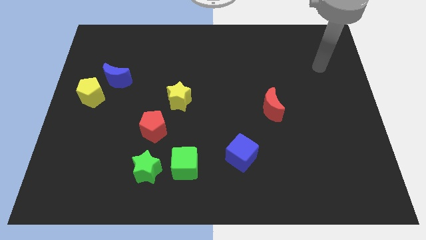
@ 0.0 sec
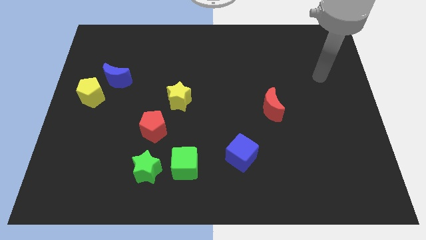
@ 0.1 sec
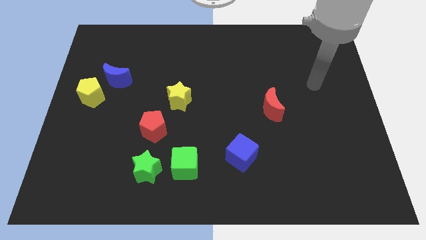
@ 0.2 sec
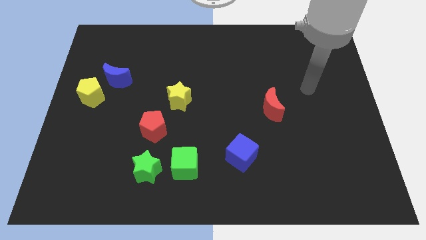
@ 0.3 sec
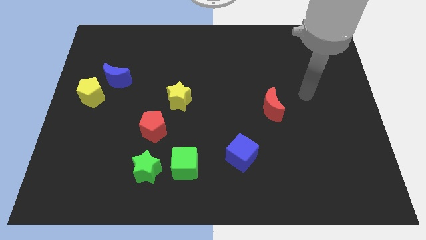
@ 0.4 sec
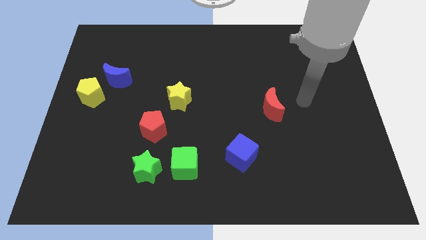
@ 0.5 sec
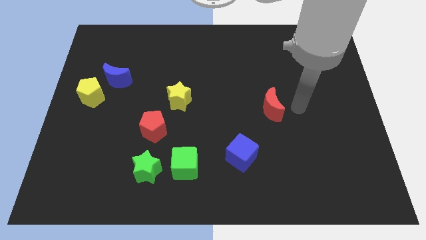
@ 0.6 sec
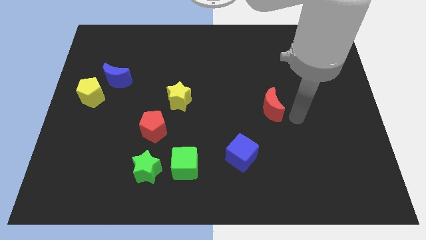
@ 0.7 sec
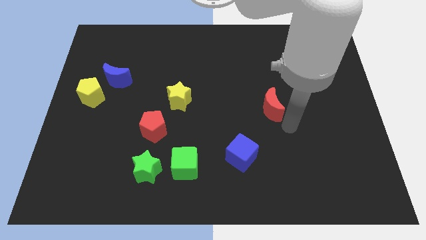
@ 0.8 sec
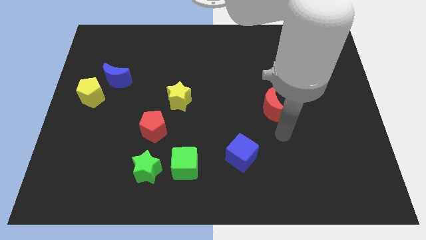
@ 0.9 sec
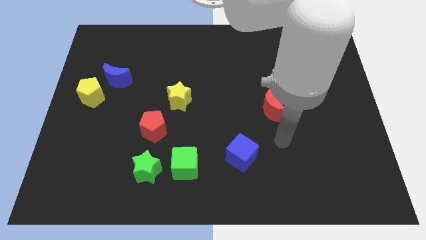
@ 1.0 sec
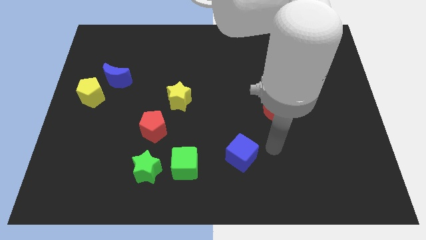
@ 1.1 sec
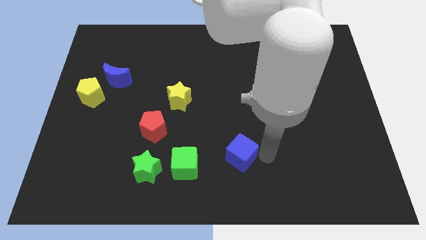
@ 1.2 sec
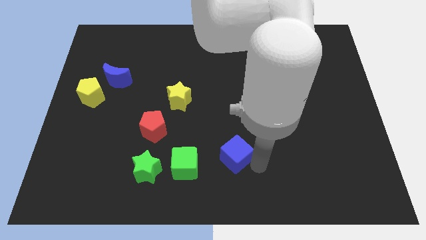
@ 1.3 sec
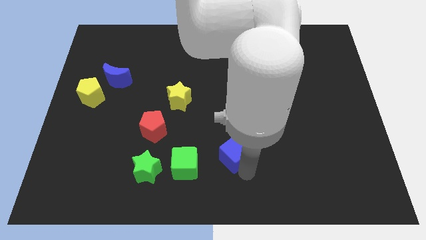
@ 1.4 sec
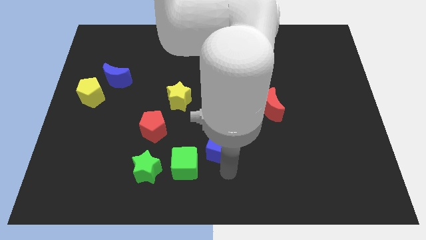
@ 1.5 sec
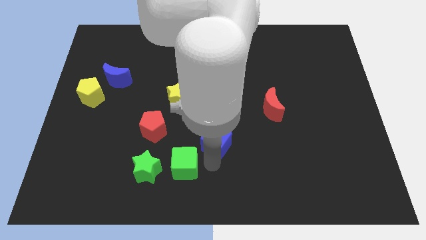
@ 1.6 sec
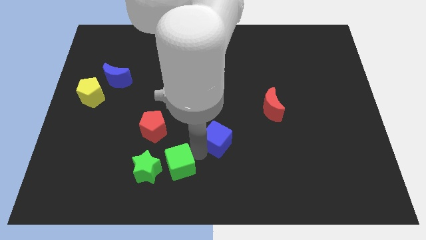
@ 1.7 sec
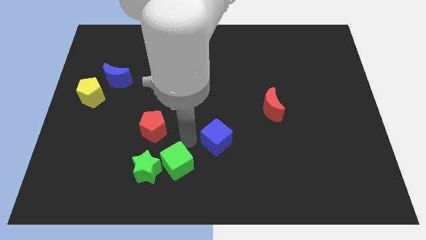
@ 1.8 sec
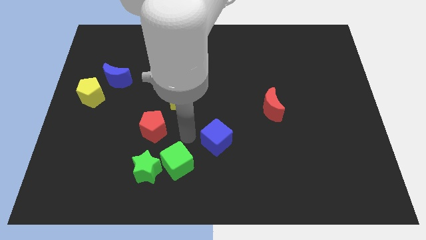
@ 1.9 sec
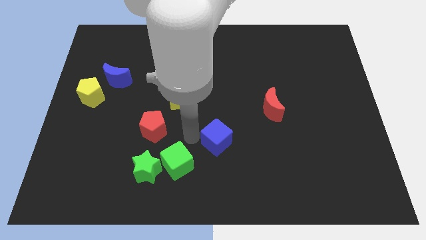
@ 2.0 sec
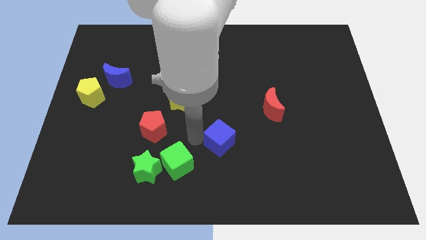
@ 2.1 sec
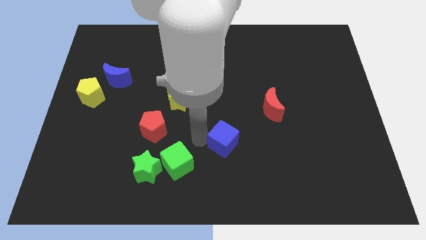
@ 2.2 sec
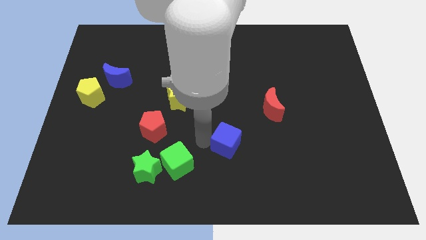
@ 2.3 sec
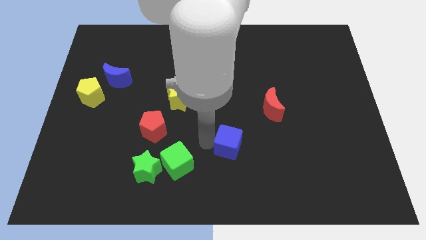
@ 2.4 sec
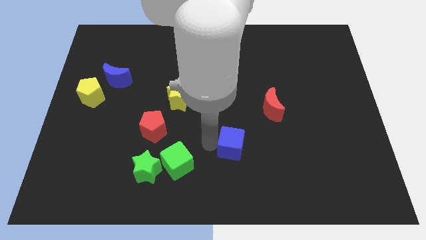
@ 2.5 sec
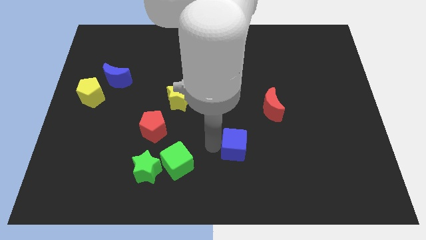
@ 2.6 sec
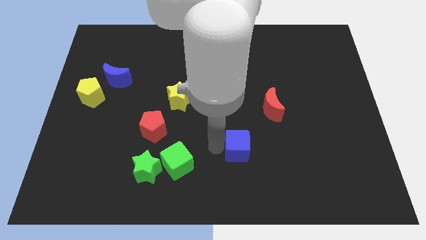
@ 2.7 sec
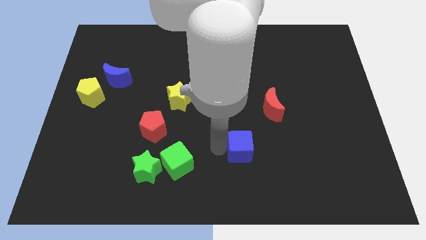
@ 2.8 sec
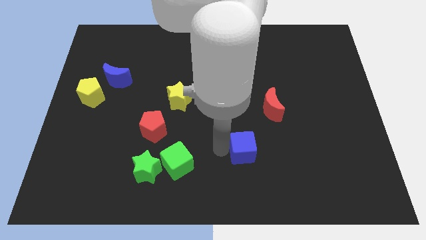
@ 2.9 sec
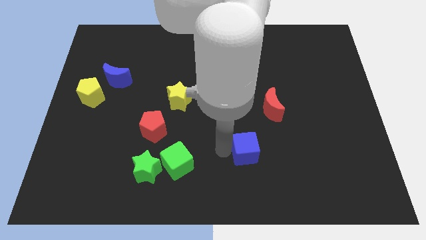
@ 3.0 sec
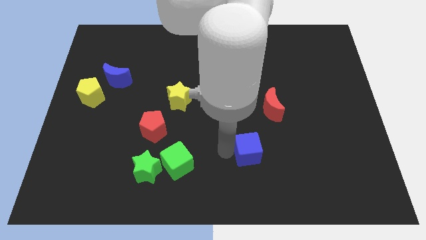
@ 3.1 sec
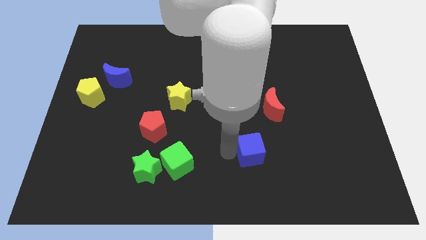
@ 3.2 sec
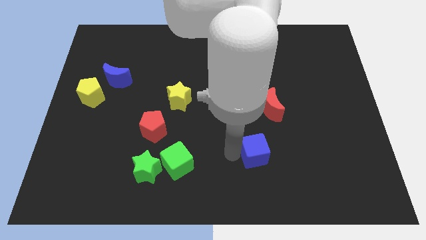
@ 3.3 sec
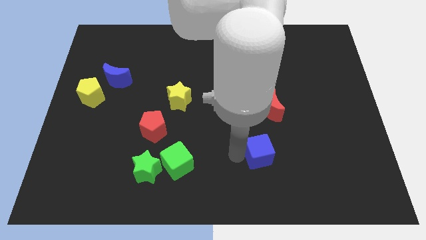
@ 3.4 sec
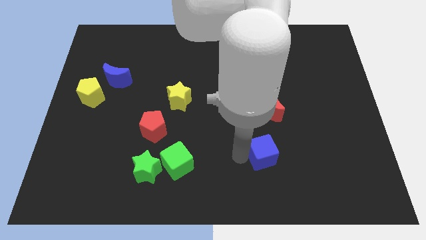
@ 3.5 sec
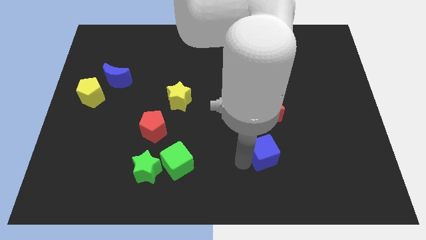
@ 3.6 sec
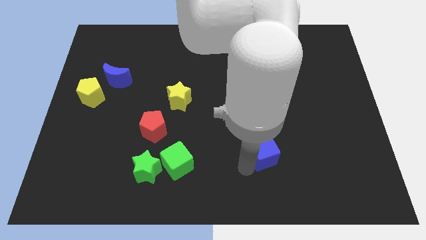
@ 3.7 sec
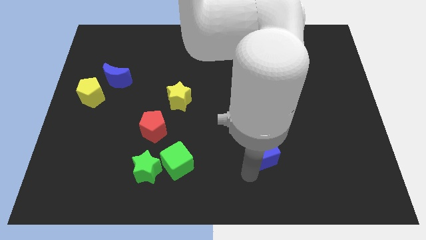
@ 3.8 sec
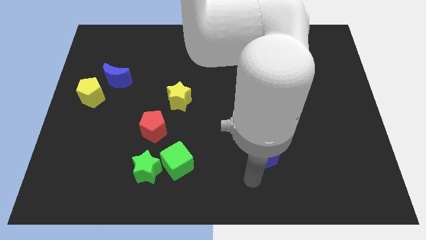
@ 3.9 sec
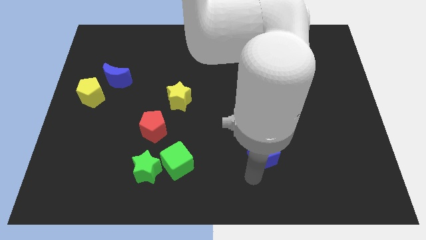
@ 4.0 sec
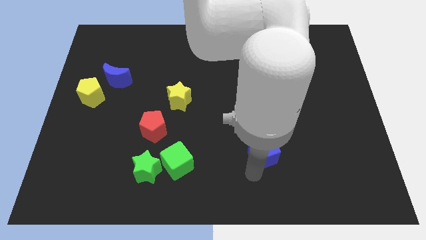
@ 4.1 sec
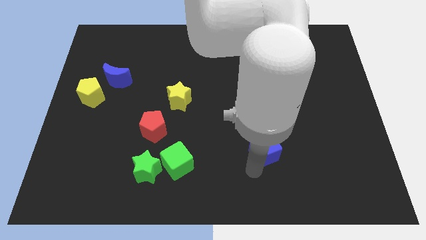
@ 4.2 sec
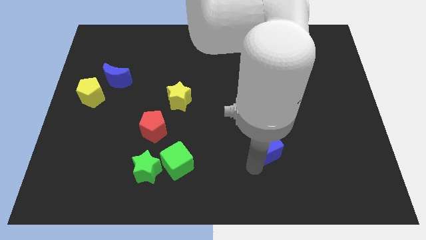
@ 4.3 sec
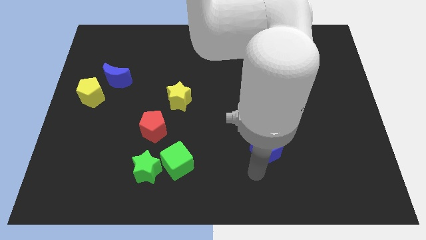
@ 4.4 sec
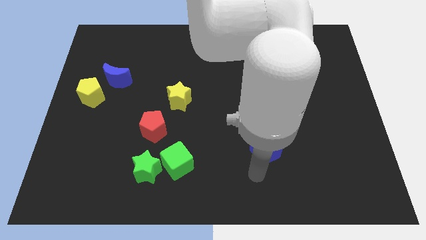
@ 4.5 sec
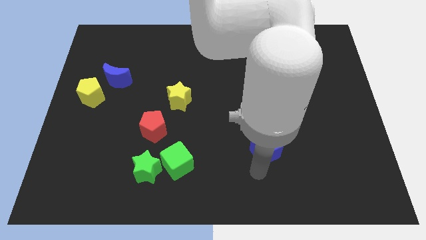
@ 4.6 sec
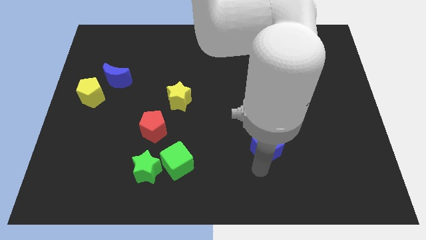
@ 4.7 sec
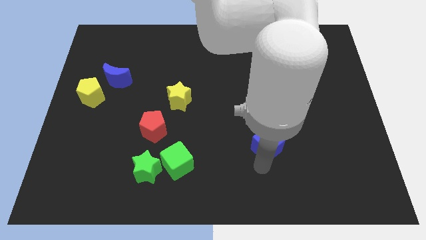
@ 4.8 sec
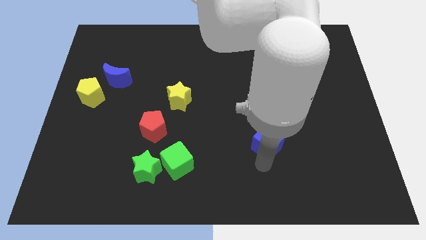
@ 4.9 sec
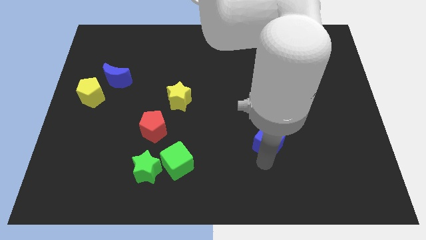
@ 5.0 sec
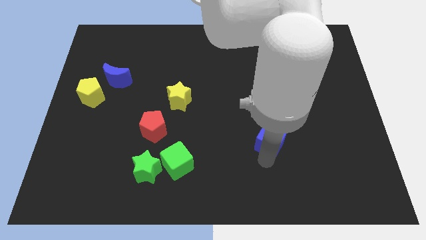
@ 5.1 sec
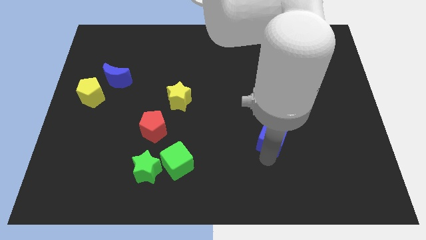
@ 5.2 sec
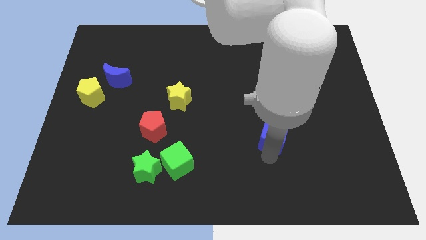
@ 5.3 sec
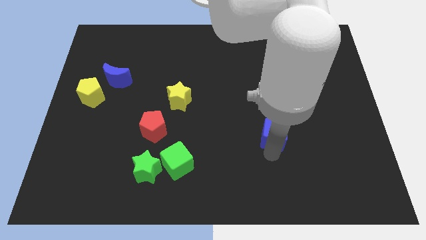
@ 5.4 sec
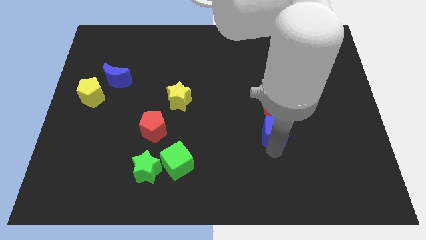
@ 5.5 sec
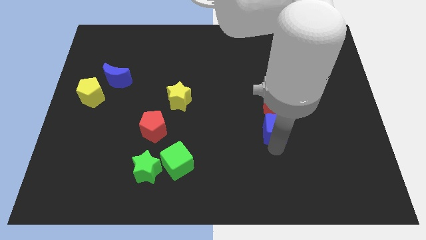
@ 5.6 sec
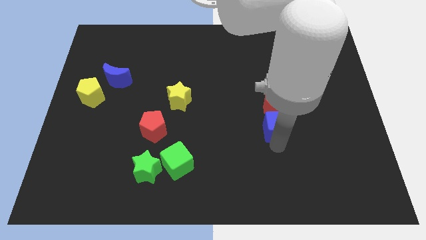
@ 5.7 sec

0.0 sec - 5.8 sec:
put the blue cube close to the red moon

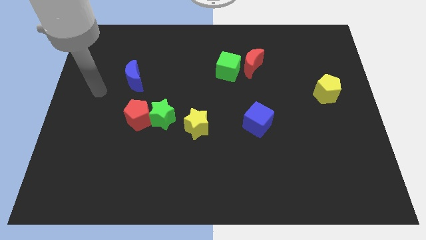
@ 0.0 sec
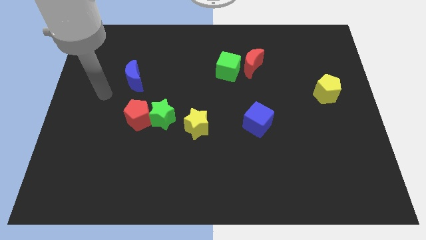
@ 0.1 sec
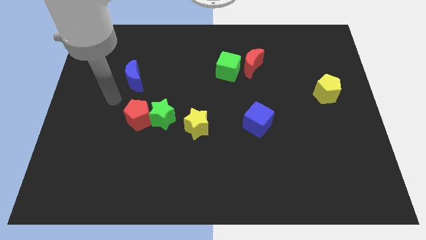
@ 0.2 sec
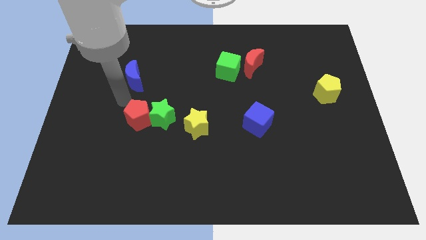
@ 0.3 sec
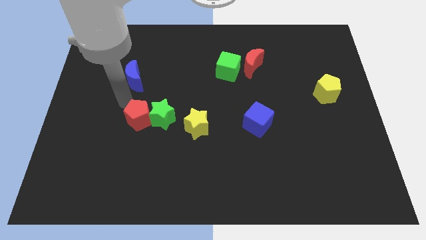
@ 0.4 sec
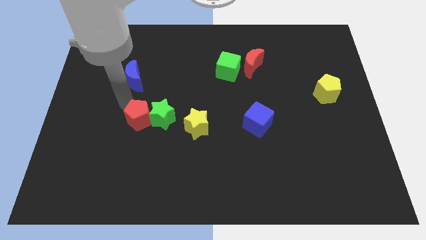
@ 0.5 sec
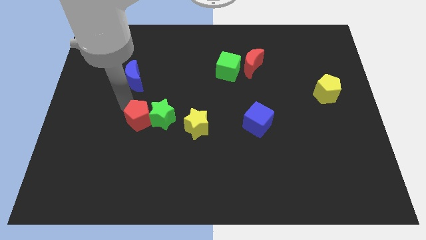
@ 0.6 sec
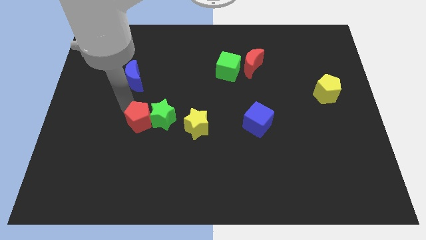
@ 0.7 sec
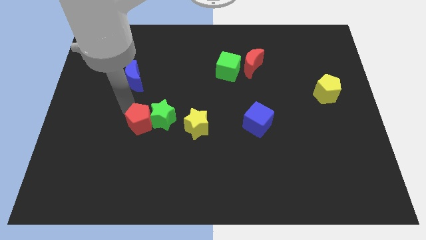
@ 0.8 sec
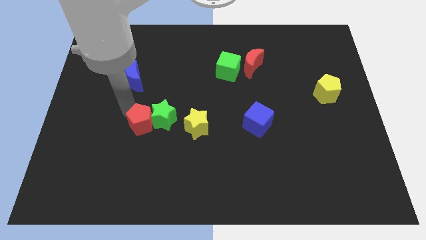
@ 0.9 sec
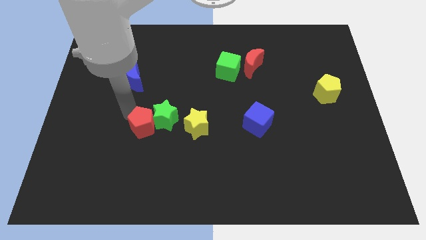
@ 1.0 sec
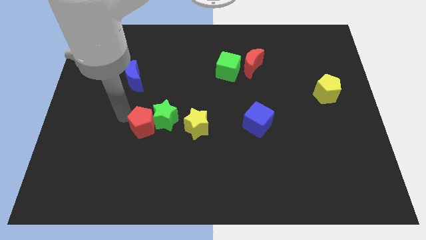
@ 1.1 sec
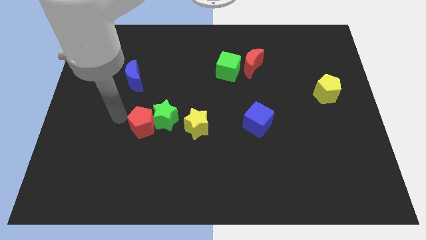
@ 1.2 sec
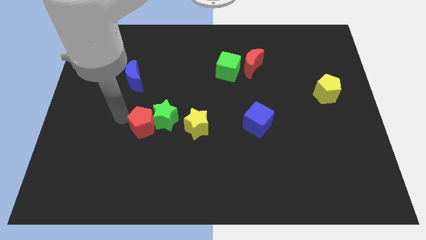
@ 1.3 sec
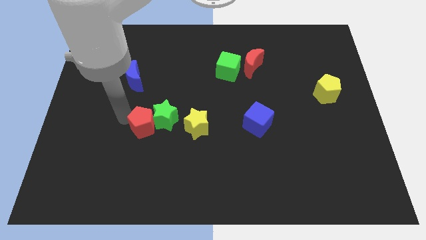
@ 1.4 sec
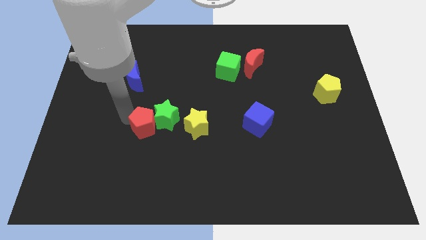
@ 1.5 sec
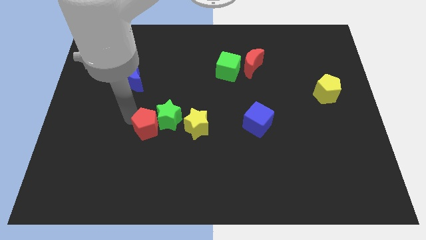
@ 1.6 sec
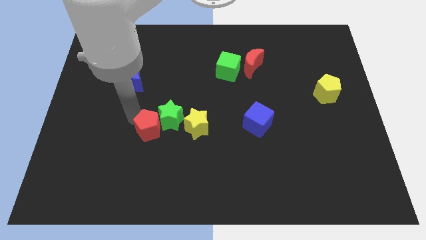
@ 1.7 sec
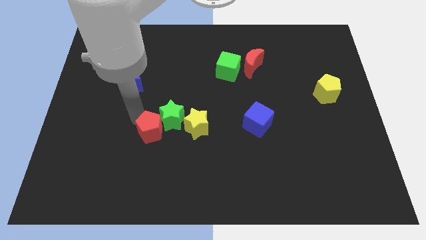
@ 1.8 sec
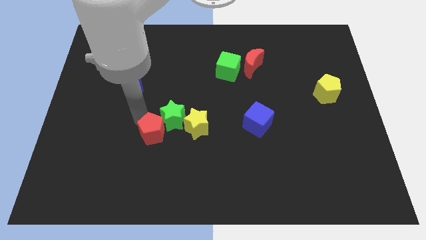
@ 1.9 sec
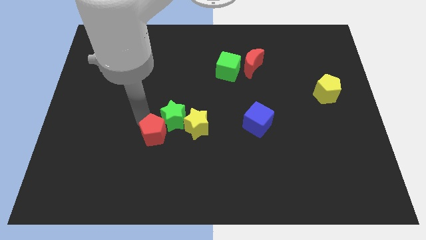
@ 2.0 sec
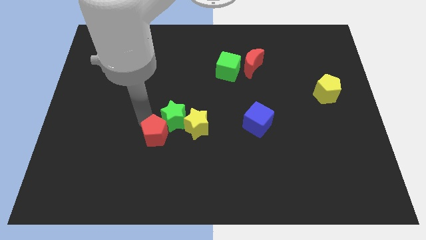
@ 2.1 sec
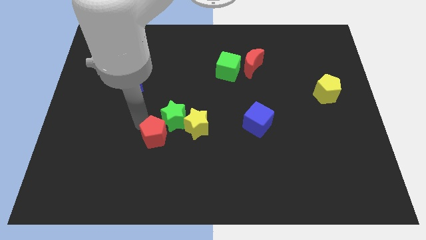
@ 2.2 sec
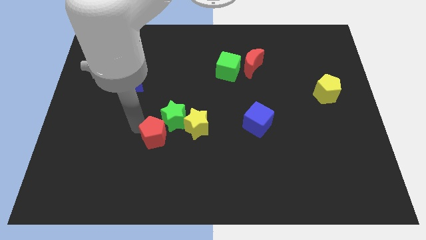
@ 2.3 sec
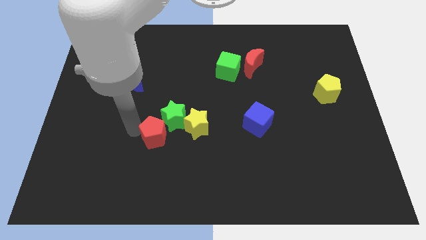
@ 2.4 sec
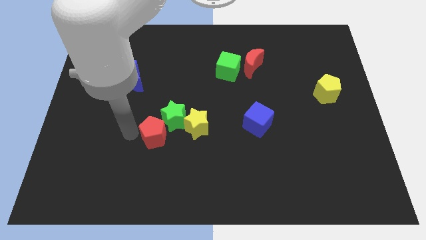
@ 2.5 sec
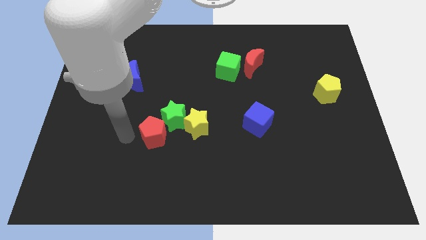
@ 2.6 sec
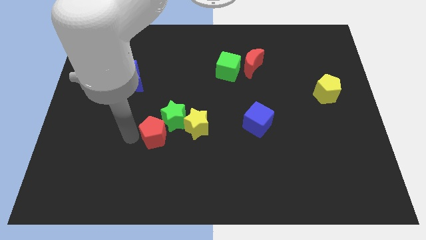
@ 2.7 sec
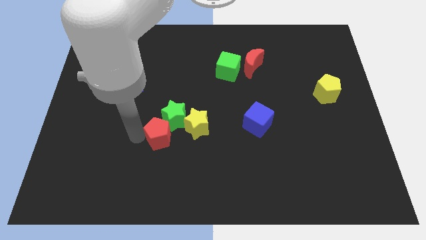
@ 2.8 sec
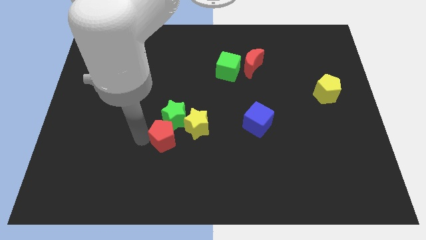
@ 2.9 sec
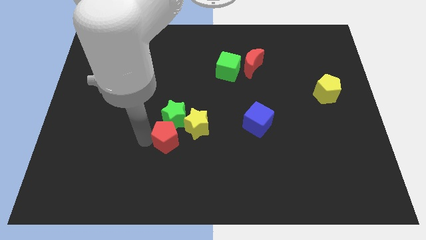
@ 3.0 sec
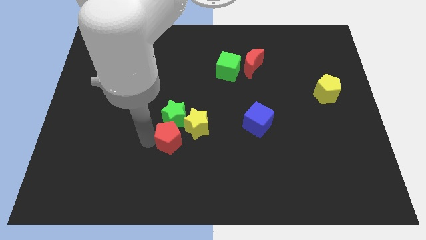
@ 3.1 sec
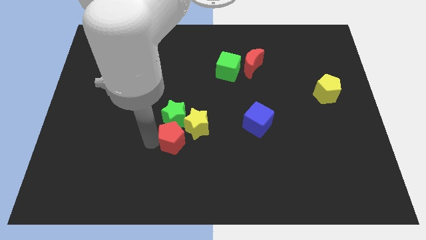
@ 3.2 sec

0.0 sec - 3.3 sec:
move the red pentagon next to the yellow star
